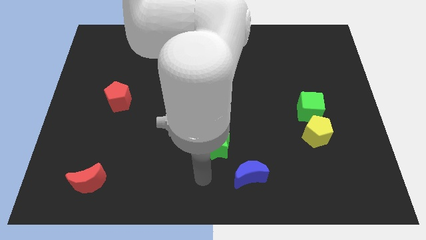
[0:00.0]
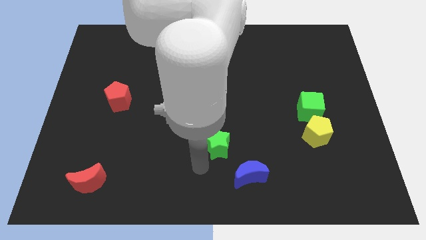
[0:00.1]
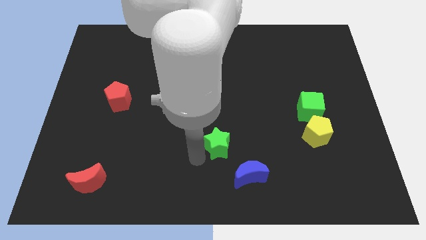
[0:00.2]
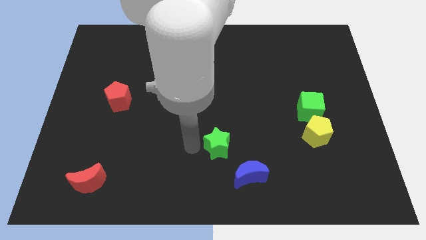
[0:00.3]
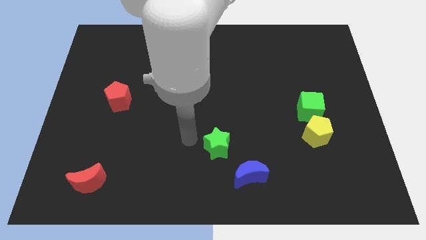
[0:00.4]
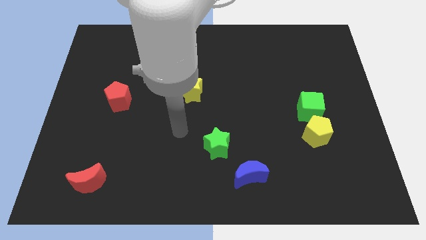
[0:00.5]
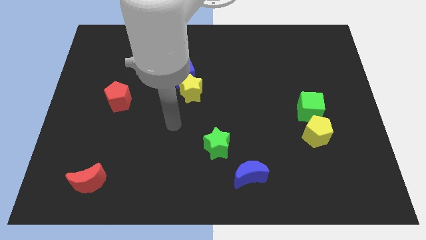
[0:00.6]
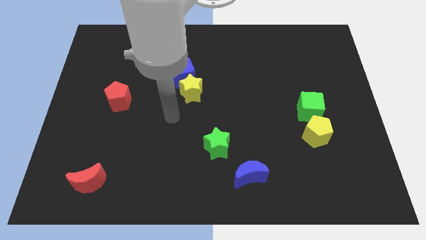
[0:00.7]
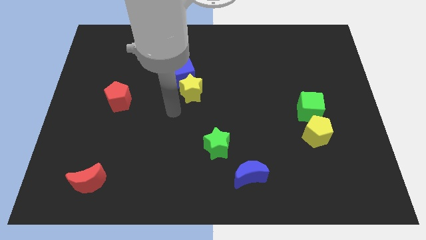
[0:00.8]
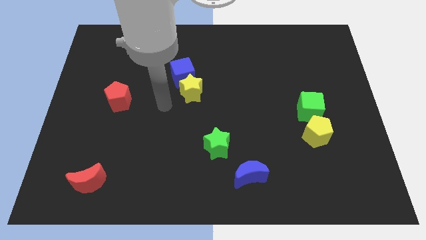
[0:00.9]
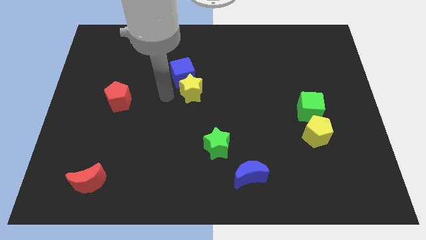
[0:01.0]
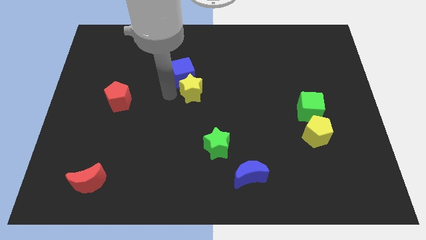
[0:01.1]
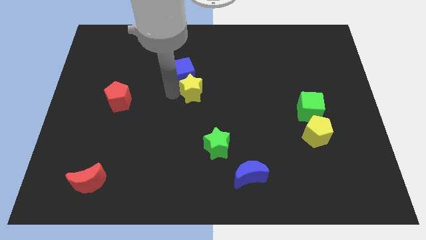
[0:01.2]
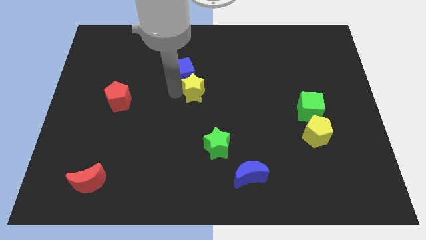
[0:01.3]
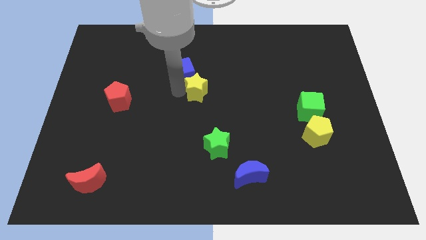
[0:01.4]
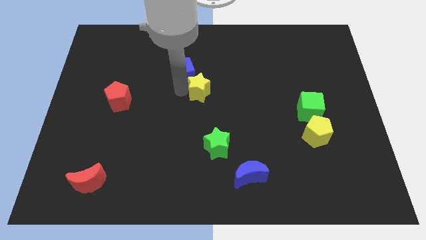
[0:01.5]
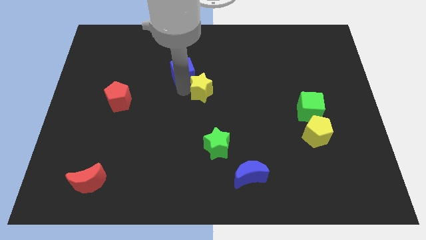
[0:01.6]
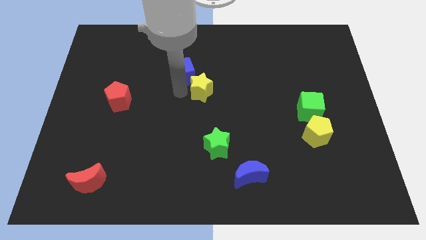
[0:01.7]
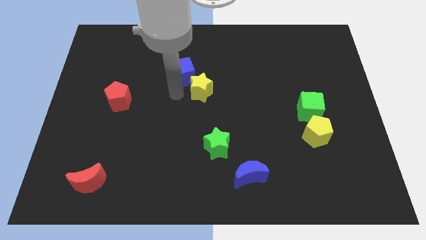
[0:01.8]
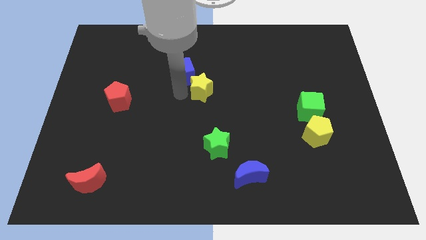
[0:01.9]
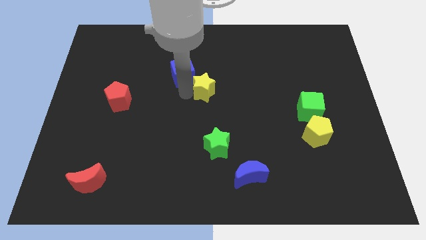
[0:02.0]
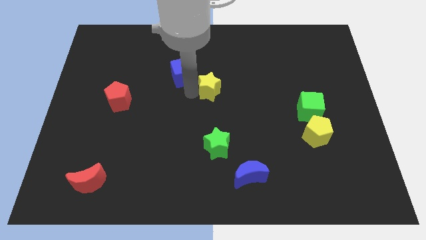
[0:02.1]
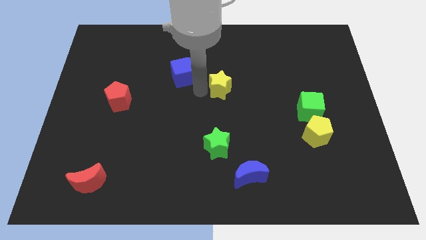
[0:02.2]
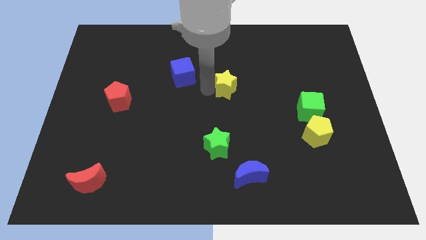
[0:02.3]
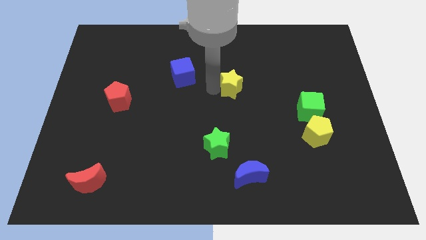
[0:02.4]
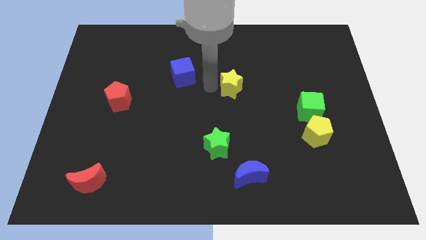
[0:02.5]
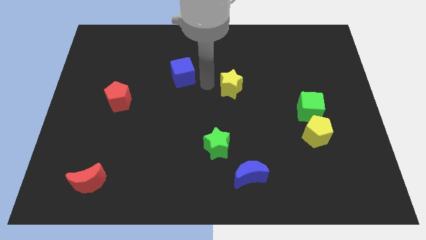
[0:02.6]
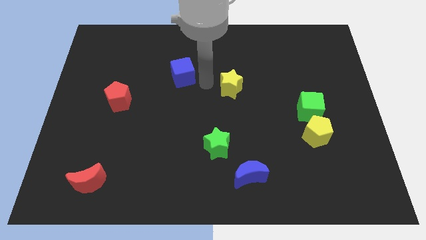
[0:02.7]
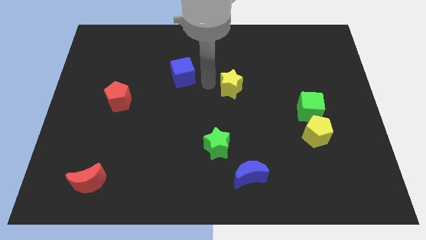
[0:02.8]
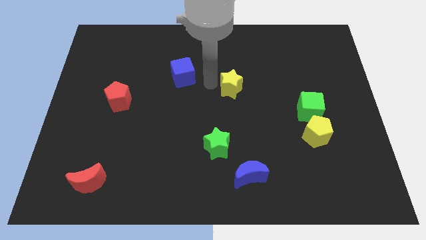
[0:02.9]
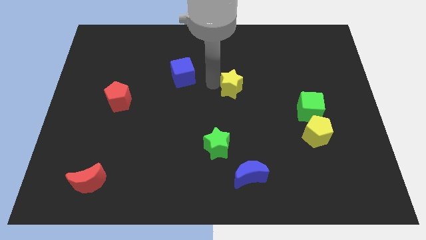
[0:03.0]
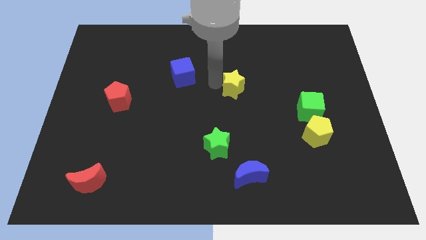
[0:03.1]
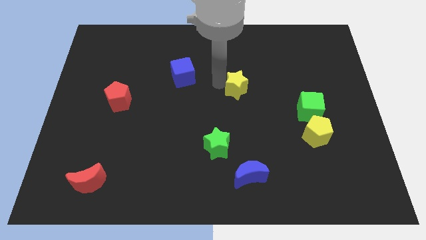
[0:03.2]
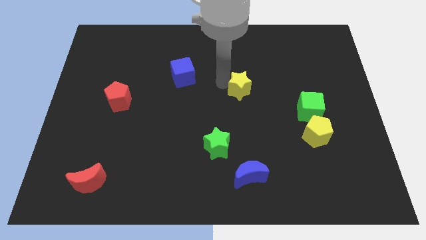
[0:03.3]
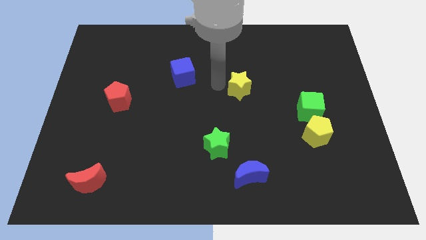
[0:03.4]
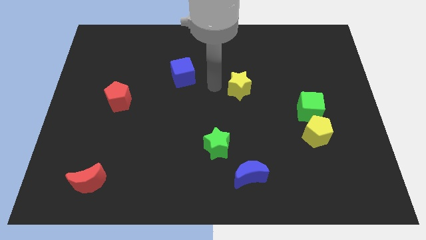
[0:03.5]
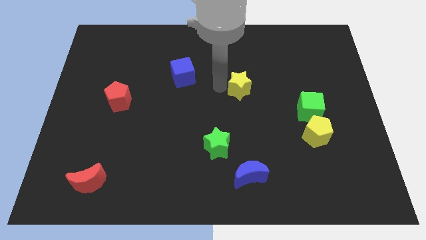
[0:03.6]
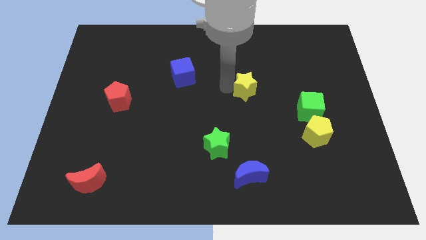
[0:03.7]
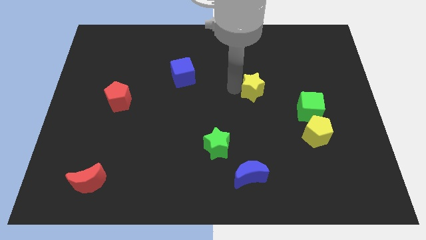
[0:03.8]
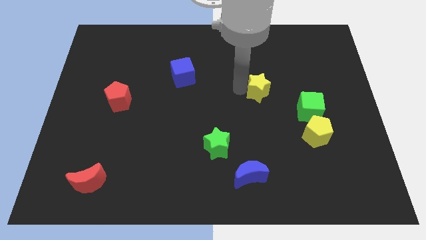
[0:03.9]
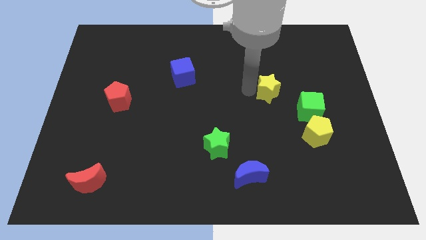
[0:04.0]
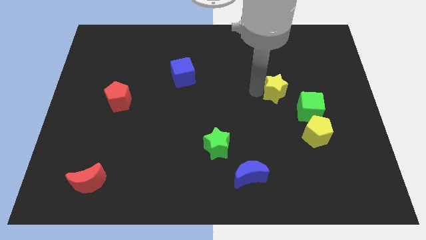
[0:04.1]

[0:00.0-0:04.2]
move the yellow star to the right

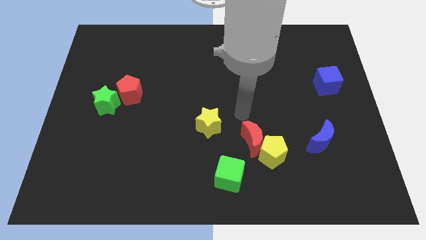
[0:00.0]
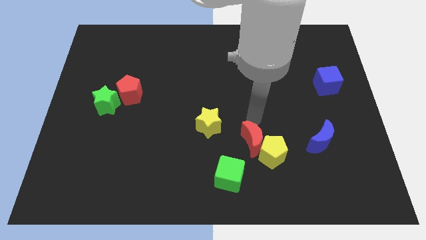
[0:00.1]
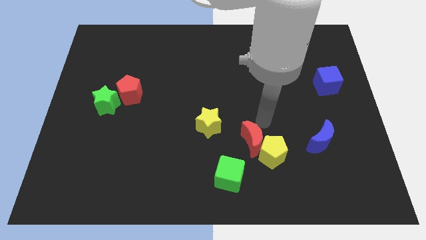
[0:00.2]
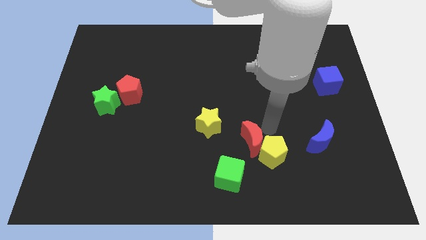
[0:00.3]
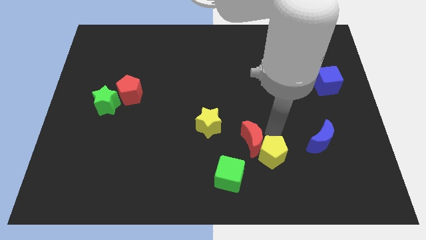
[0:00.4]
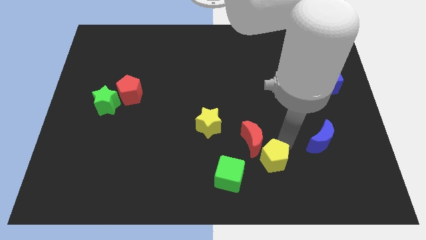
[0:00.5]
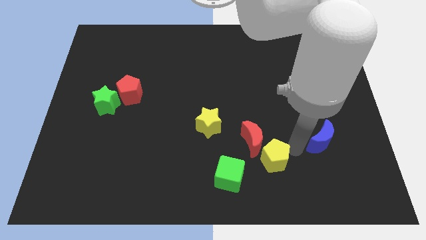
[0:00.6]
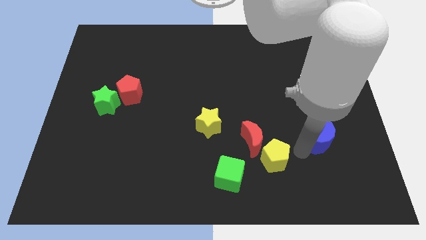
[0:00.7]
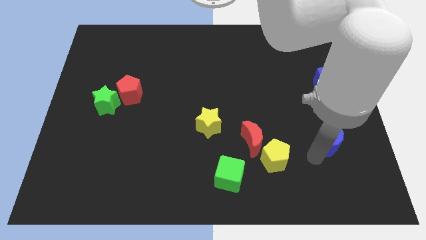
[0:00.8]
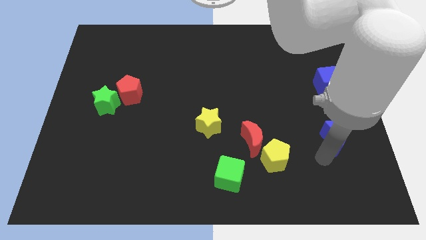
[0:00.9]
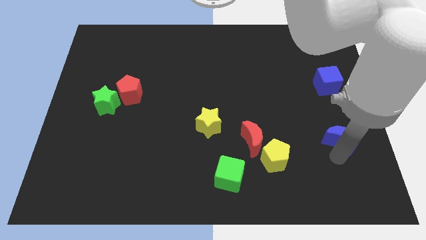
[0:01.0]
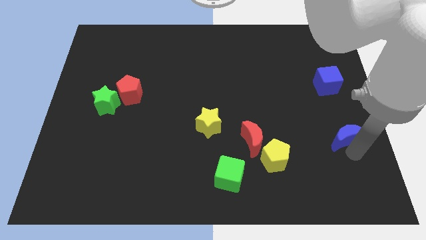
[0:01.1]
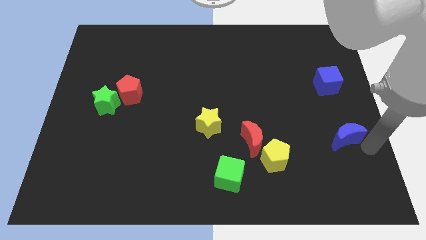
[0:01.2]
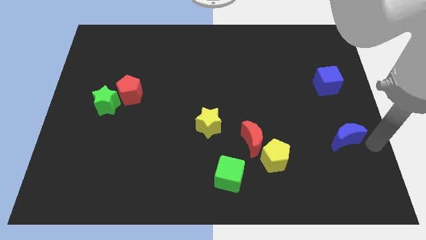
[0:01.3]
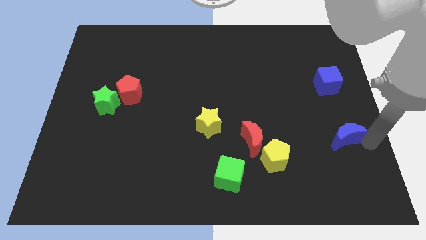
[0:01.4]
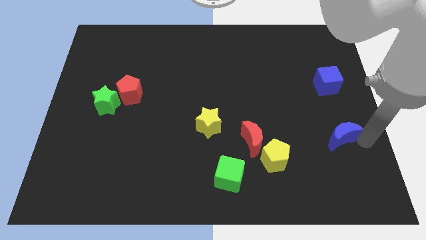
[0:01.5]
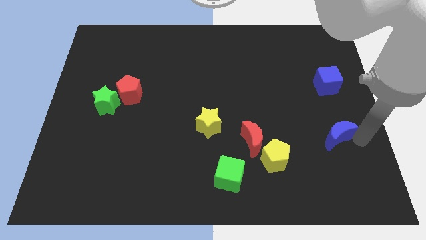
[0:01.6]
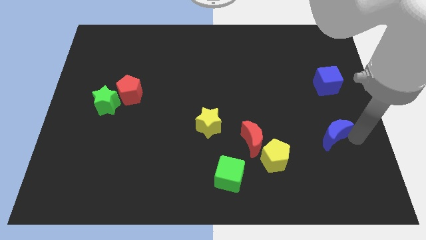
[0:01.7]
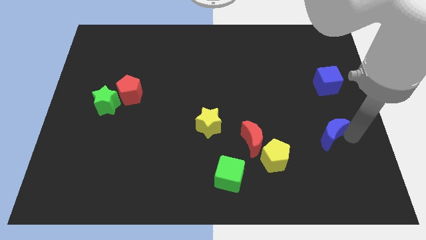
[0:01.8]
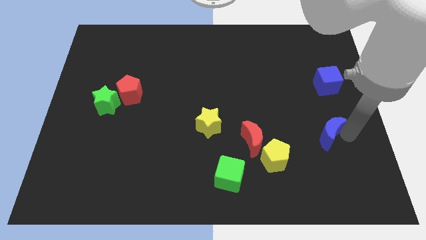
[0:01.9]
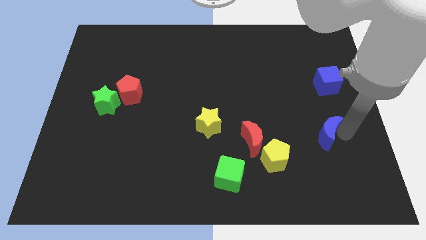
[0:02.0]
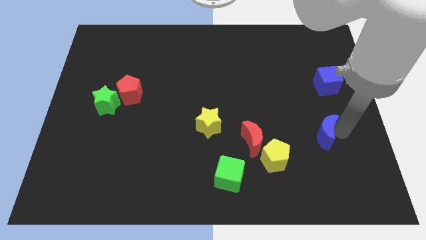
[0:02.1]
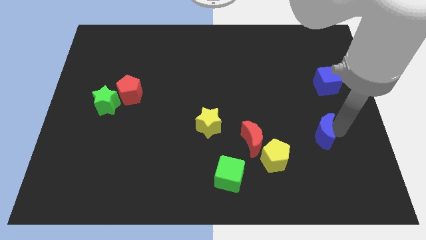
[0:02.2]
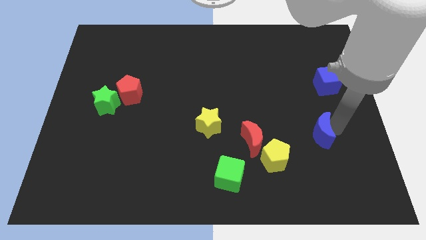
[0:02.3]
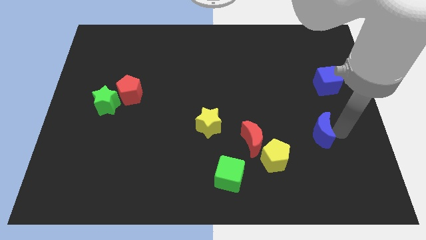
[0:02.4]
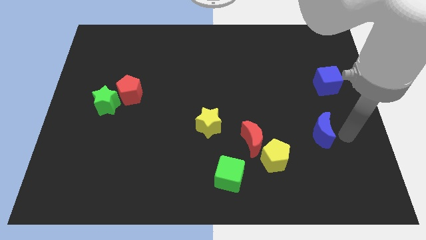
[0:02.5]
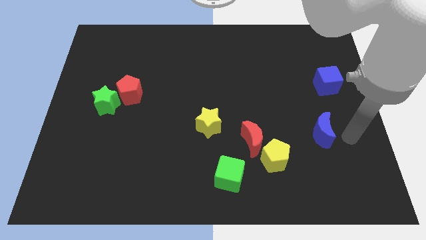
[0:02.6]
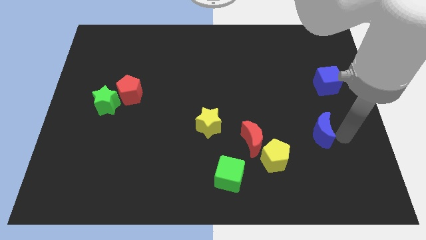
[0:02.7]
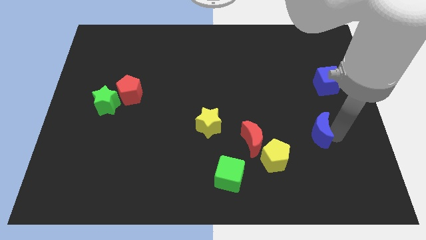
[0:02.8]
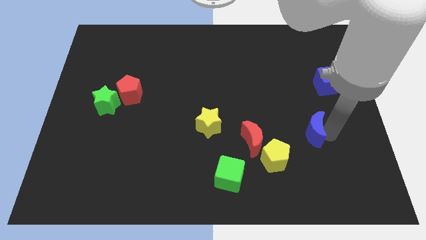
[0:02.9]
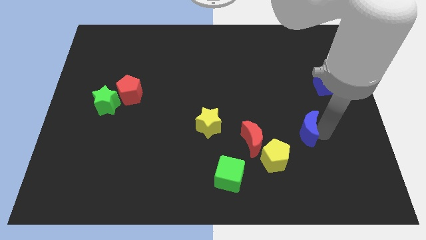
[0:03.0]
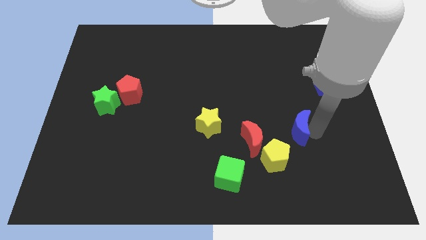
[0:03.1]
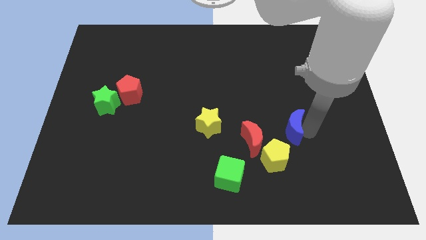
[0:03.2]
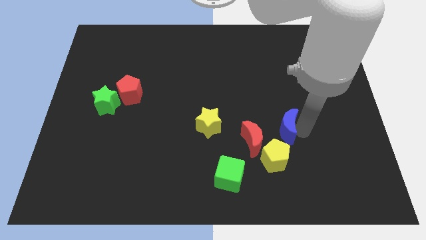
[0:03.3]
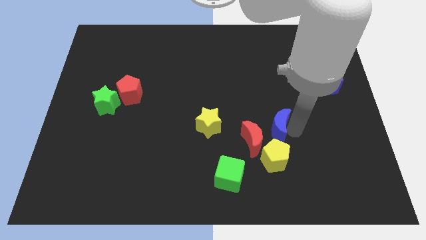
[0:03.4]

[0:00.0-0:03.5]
push the blue moon slightly to the left

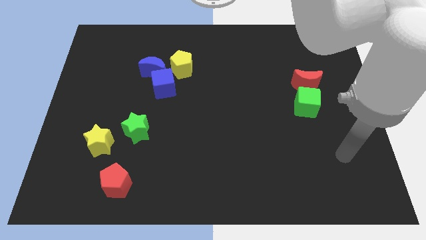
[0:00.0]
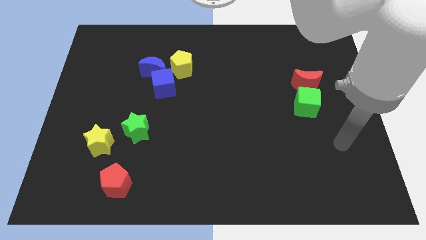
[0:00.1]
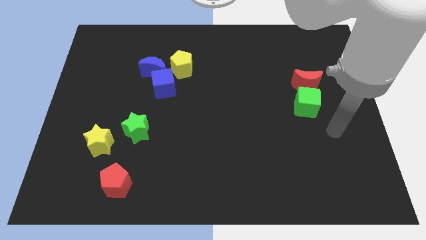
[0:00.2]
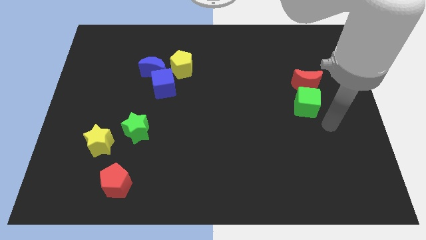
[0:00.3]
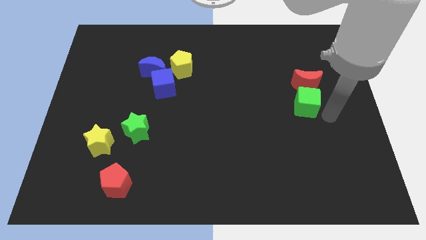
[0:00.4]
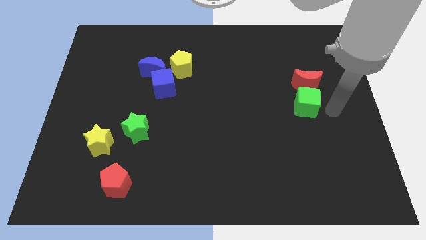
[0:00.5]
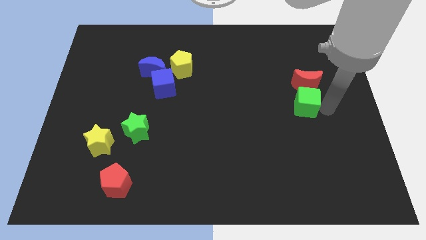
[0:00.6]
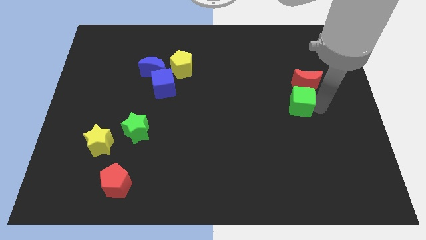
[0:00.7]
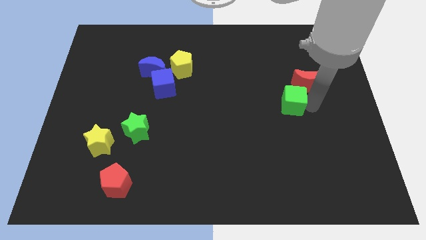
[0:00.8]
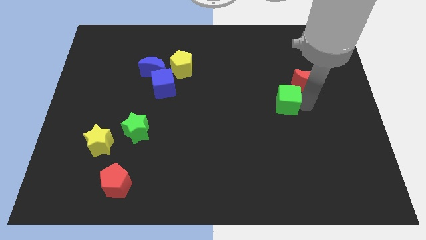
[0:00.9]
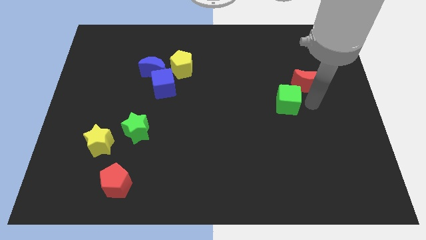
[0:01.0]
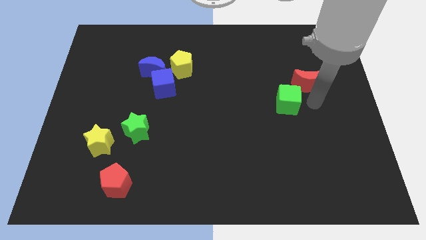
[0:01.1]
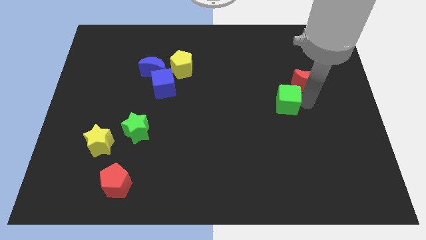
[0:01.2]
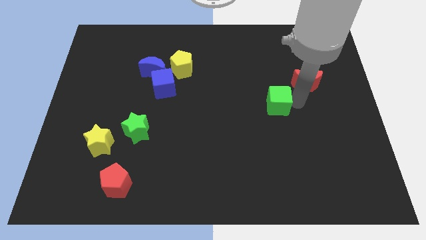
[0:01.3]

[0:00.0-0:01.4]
push the green cube to the left a bit
